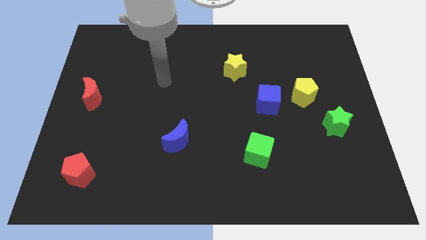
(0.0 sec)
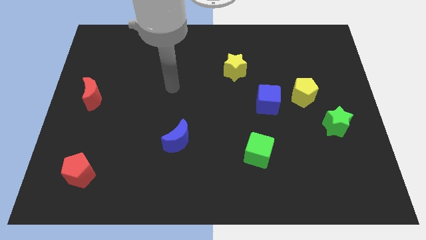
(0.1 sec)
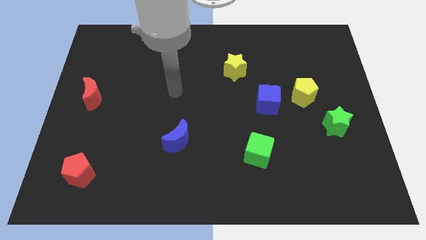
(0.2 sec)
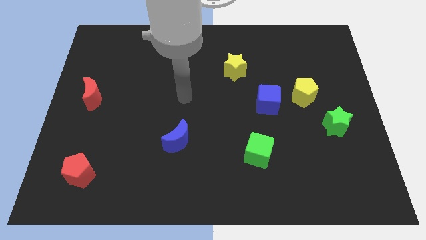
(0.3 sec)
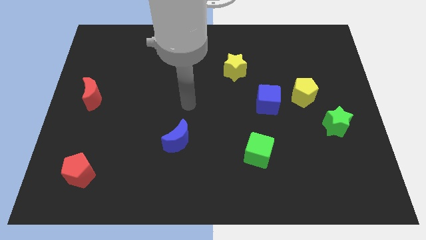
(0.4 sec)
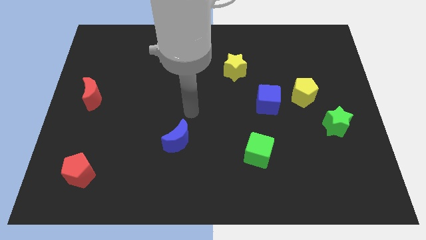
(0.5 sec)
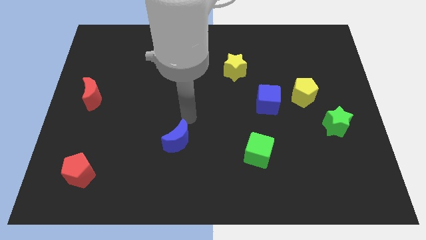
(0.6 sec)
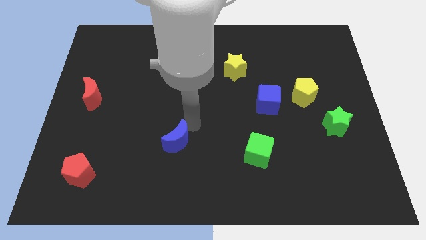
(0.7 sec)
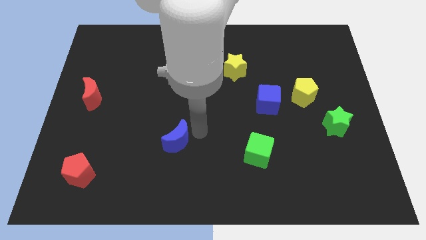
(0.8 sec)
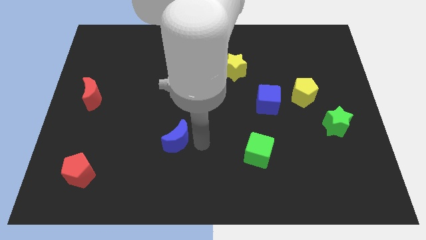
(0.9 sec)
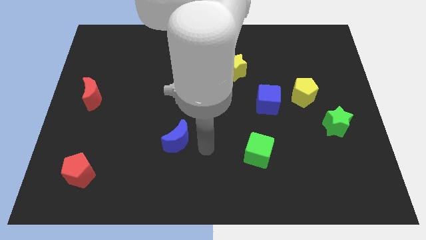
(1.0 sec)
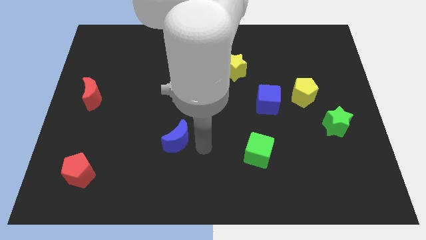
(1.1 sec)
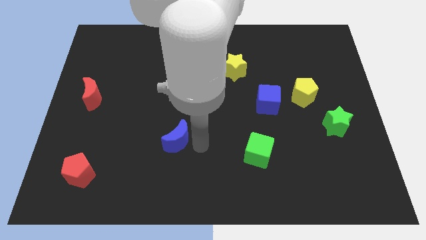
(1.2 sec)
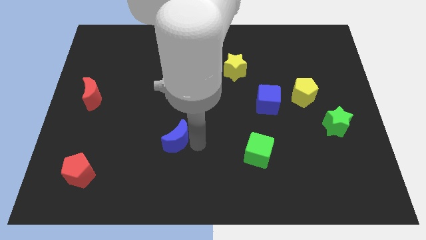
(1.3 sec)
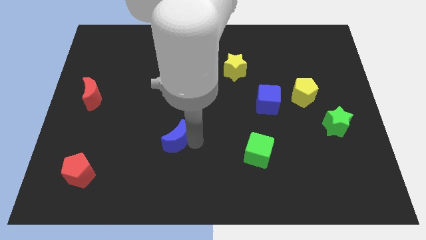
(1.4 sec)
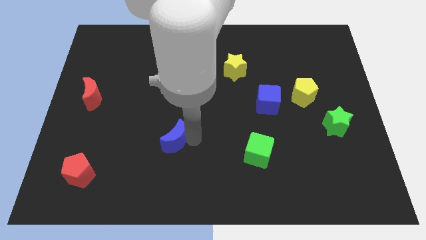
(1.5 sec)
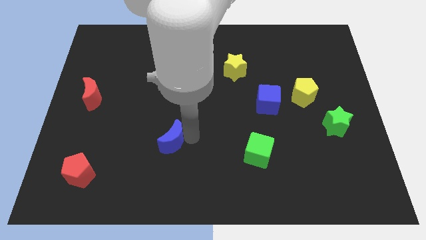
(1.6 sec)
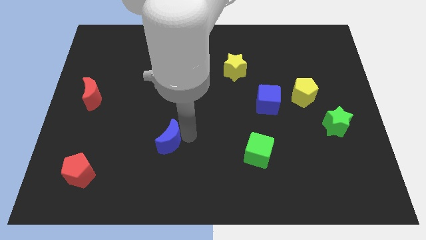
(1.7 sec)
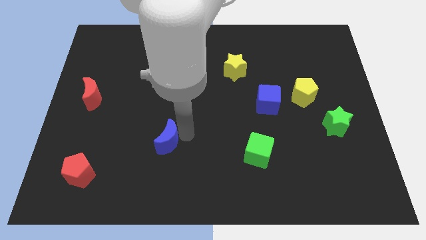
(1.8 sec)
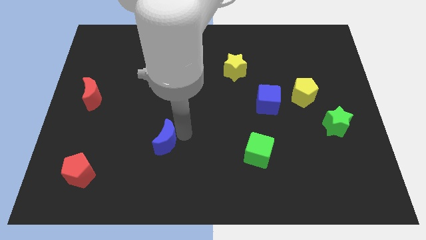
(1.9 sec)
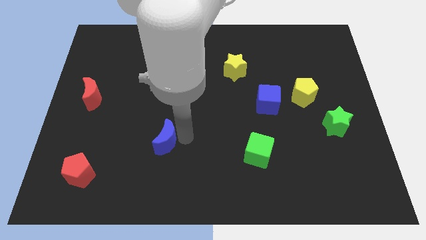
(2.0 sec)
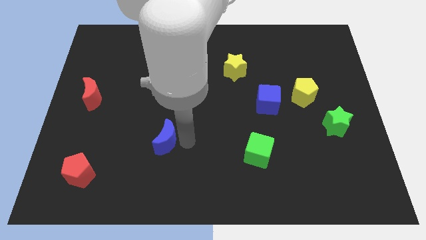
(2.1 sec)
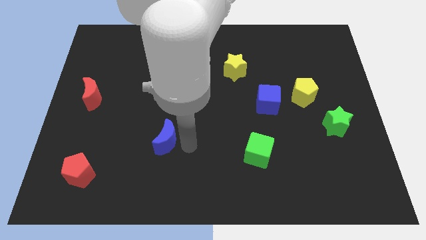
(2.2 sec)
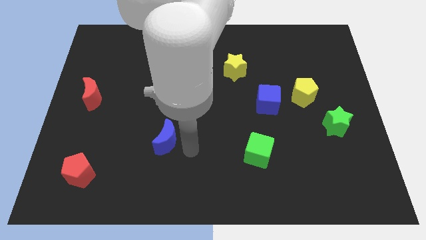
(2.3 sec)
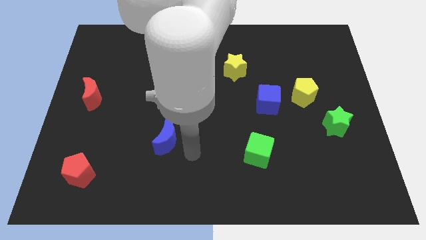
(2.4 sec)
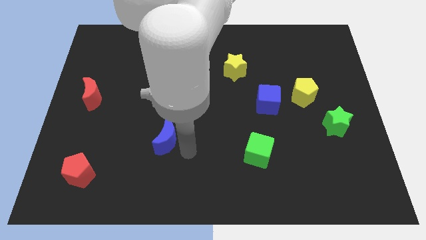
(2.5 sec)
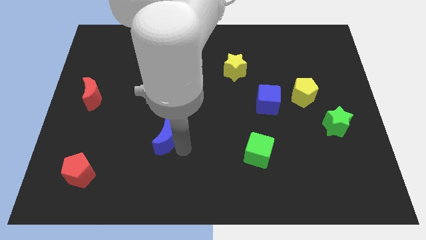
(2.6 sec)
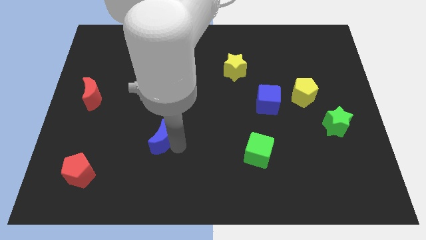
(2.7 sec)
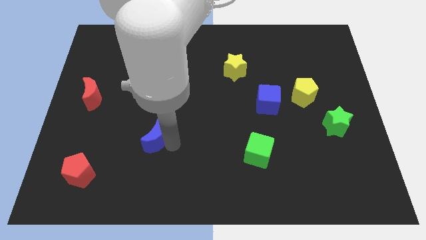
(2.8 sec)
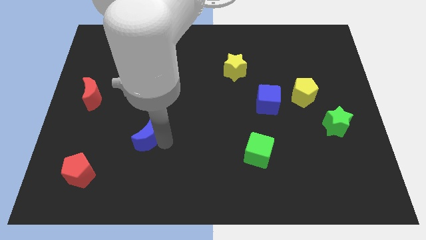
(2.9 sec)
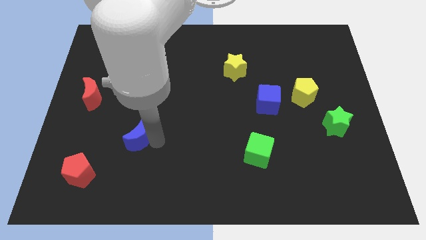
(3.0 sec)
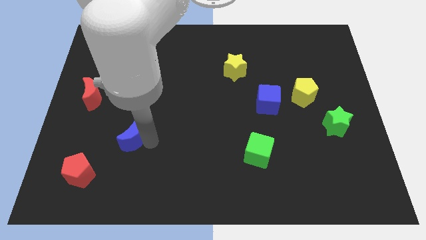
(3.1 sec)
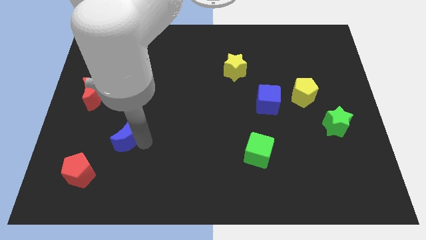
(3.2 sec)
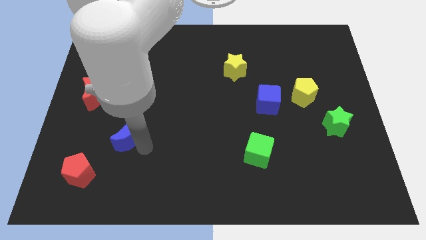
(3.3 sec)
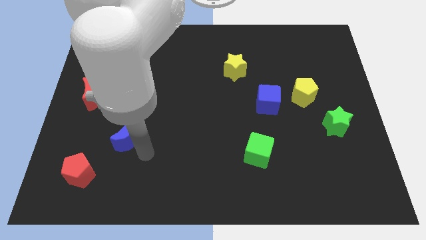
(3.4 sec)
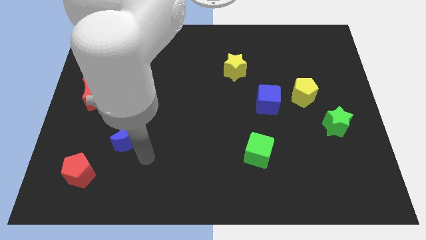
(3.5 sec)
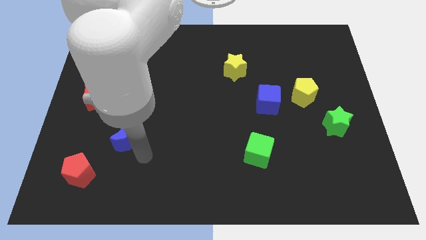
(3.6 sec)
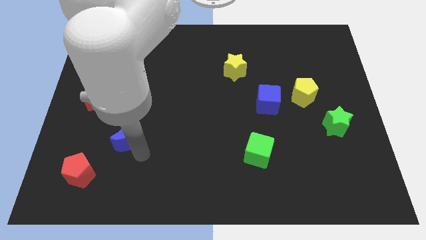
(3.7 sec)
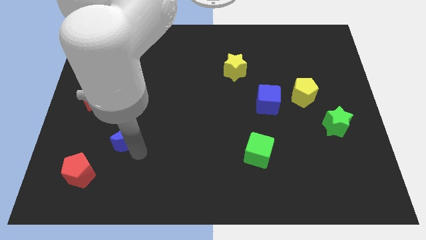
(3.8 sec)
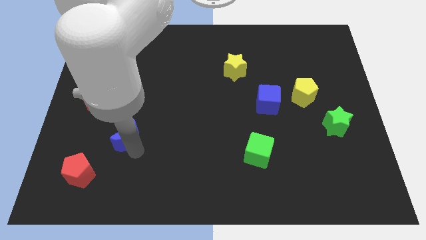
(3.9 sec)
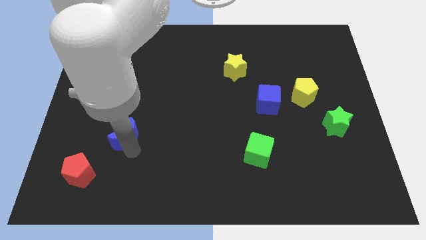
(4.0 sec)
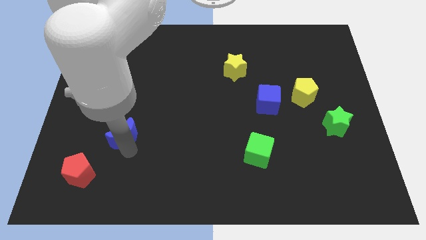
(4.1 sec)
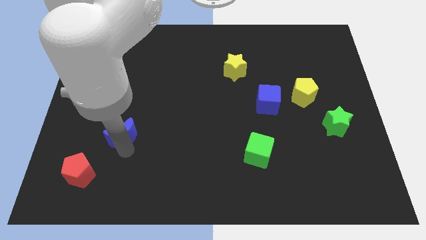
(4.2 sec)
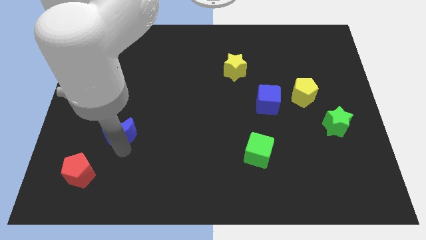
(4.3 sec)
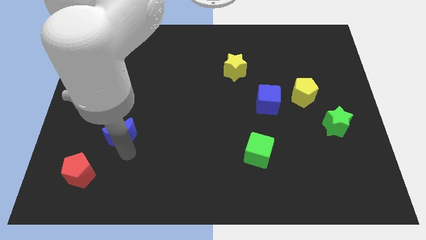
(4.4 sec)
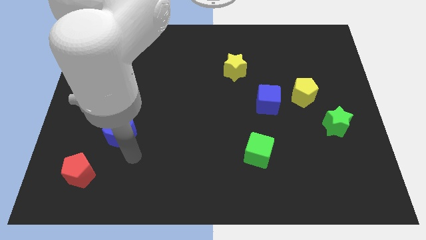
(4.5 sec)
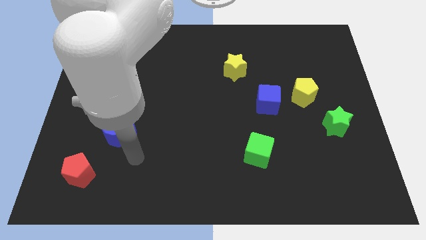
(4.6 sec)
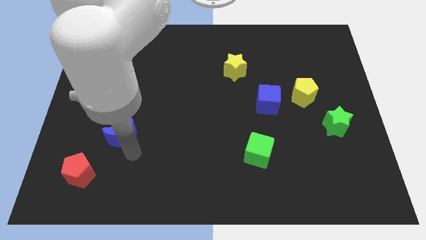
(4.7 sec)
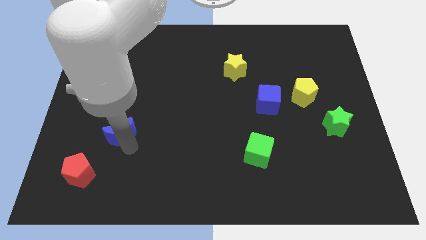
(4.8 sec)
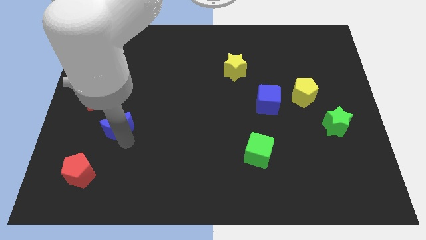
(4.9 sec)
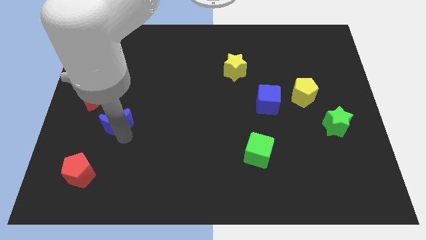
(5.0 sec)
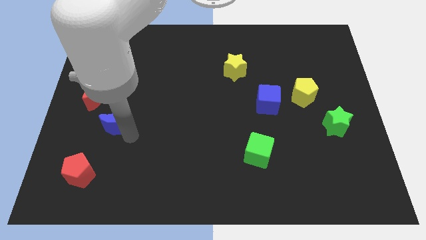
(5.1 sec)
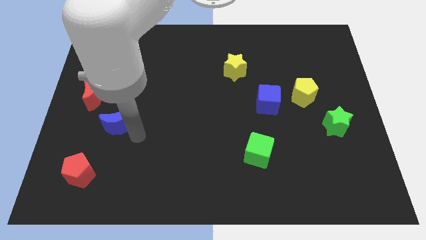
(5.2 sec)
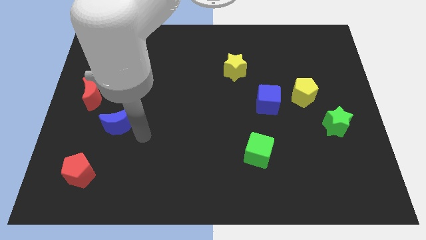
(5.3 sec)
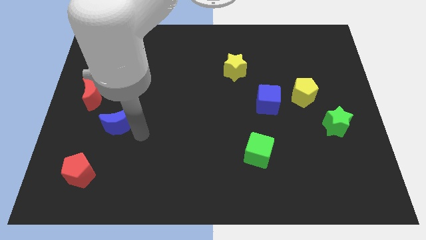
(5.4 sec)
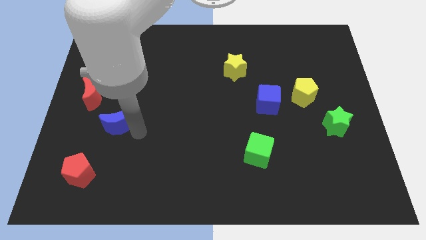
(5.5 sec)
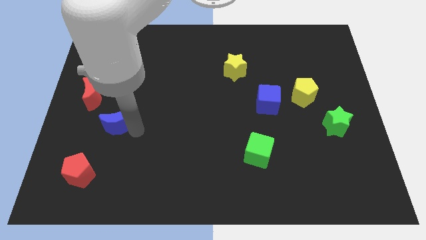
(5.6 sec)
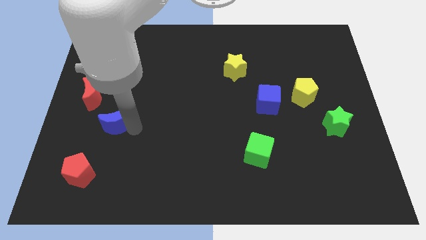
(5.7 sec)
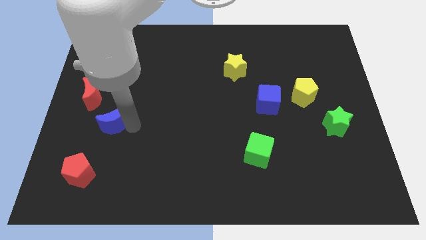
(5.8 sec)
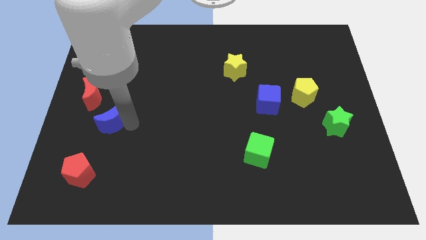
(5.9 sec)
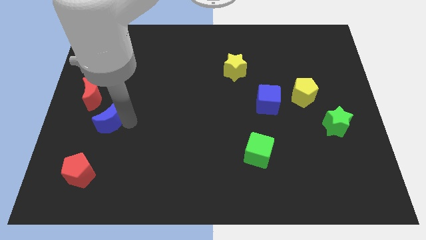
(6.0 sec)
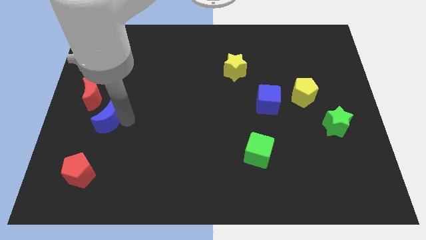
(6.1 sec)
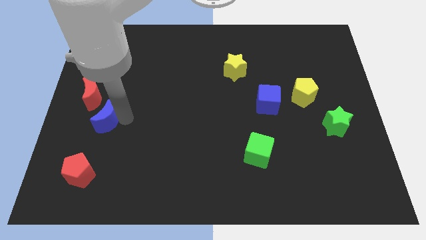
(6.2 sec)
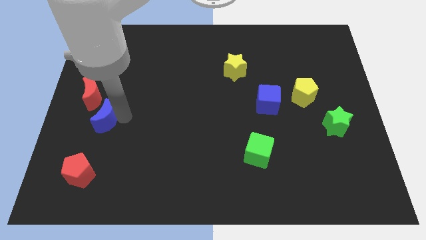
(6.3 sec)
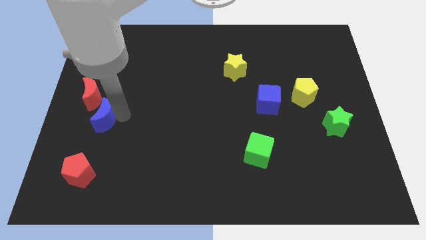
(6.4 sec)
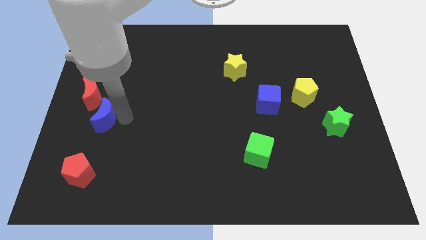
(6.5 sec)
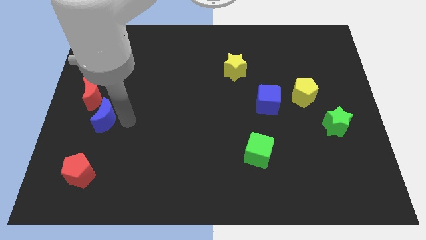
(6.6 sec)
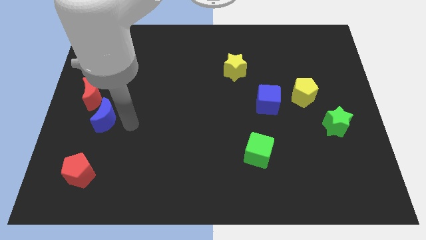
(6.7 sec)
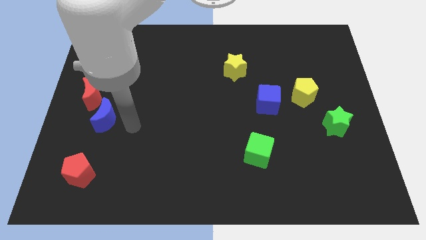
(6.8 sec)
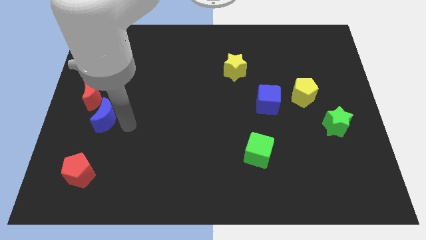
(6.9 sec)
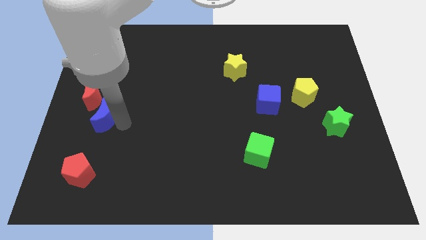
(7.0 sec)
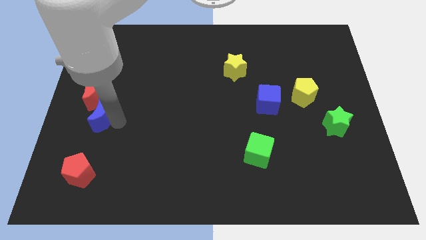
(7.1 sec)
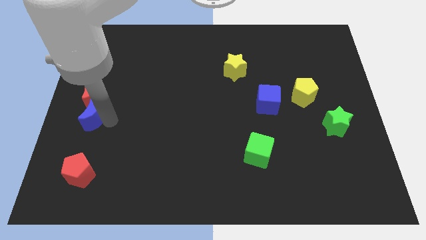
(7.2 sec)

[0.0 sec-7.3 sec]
slide the blue moon to the left side
